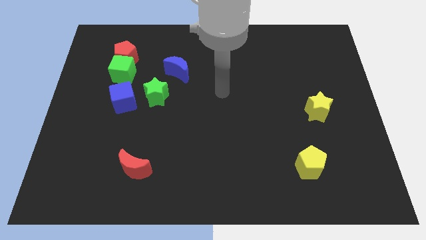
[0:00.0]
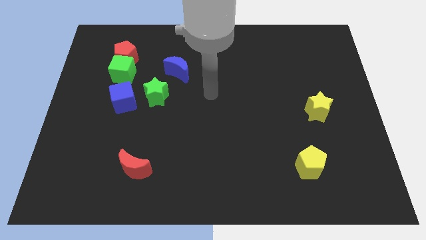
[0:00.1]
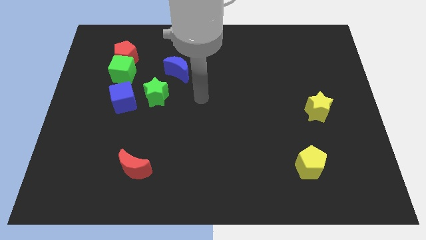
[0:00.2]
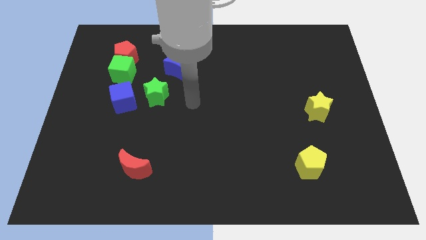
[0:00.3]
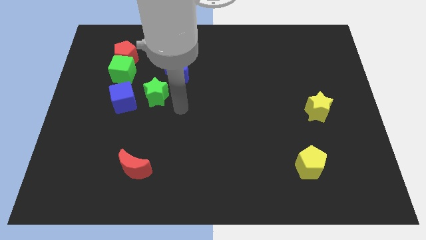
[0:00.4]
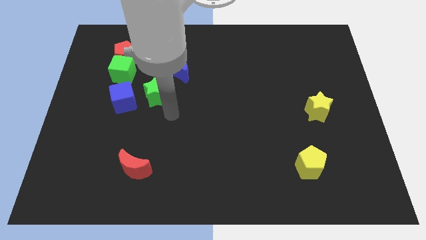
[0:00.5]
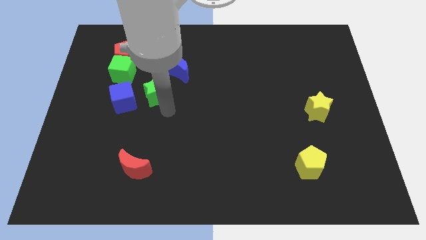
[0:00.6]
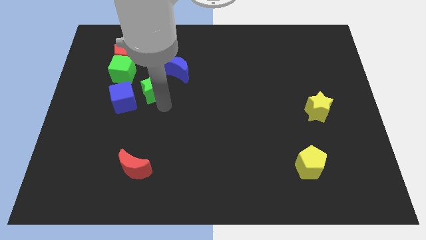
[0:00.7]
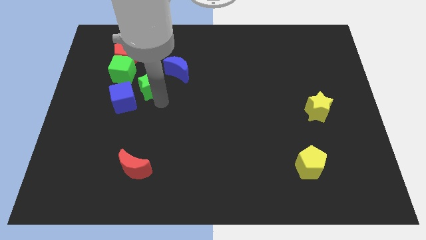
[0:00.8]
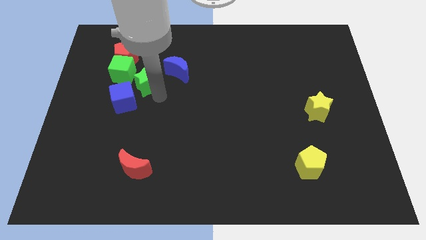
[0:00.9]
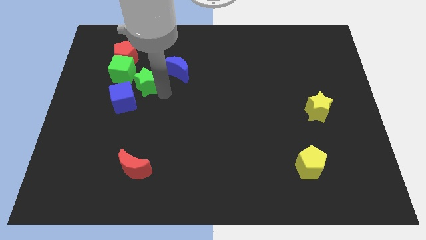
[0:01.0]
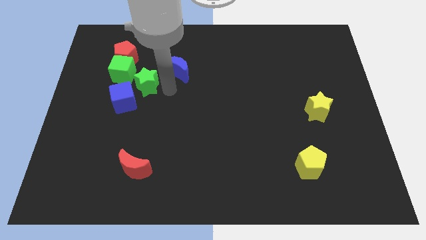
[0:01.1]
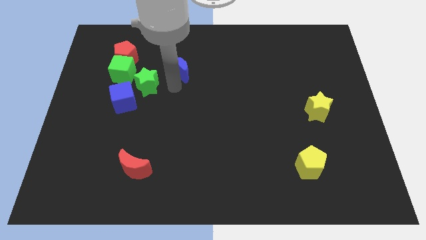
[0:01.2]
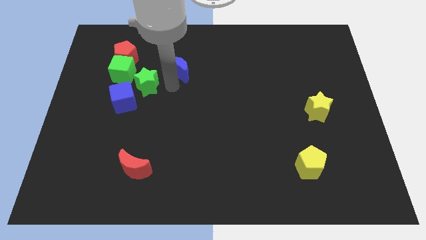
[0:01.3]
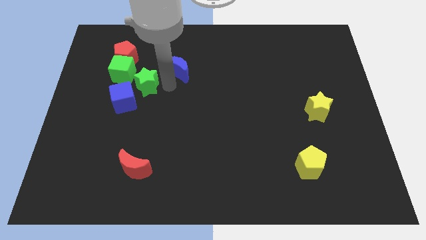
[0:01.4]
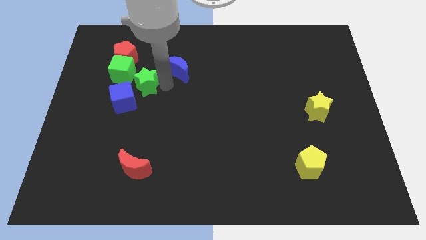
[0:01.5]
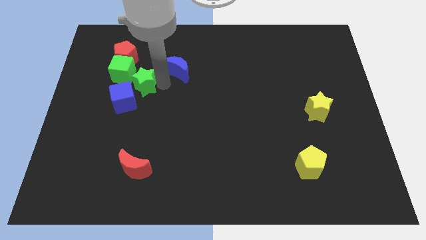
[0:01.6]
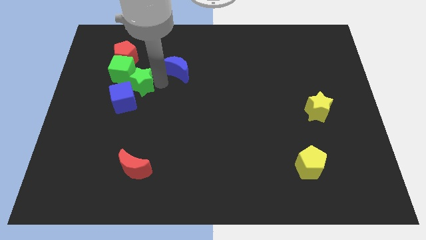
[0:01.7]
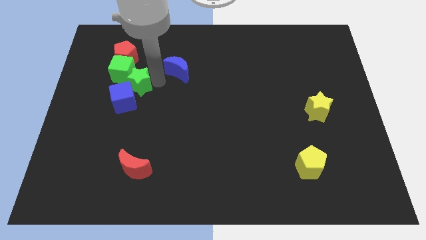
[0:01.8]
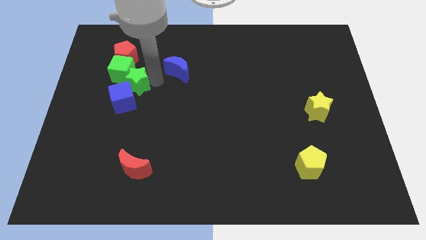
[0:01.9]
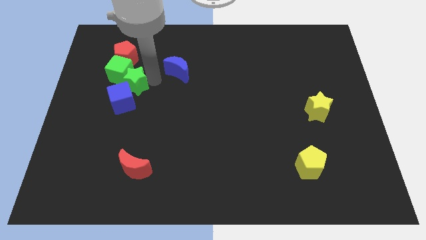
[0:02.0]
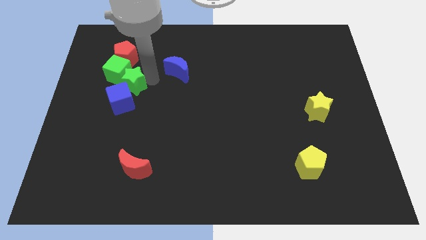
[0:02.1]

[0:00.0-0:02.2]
slightly move the green star up and then left

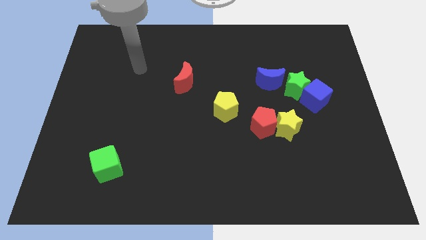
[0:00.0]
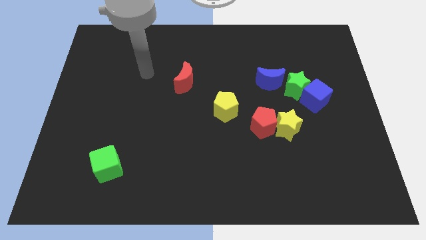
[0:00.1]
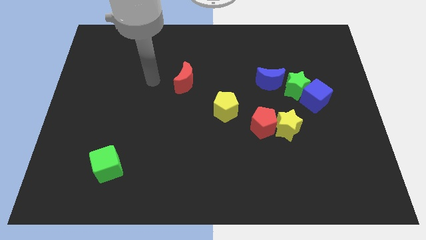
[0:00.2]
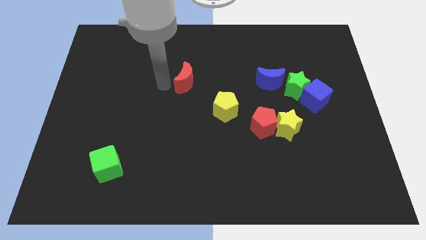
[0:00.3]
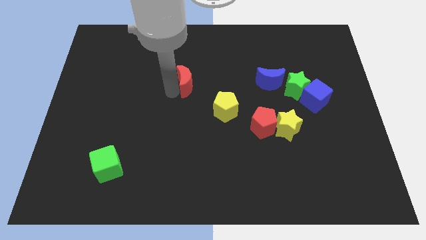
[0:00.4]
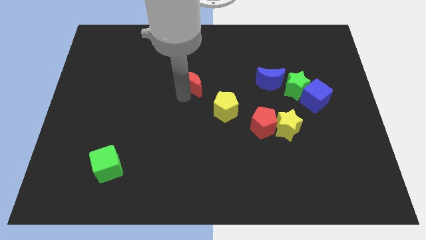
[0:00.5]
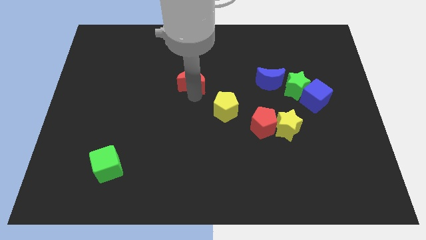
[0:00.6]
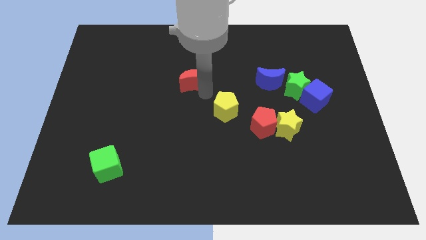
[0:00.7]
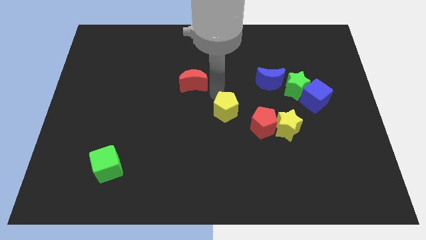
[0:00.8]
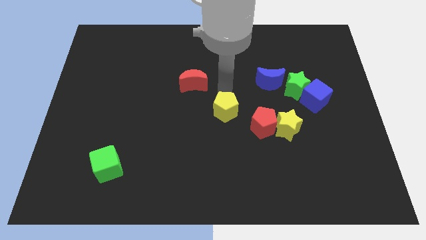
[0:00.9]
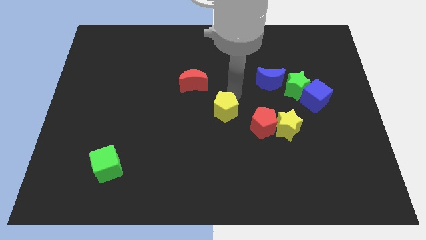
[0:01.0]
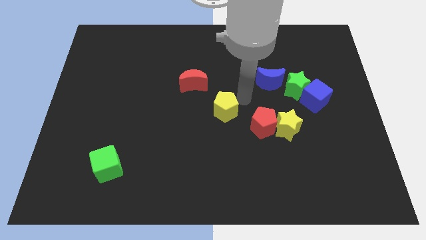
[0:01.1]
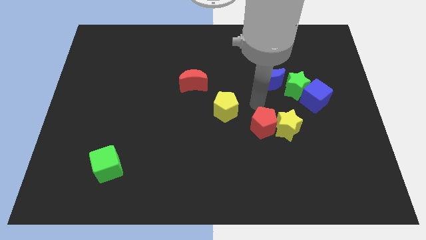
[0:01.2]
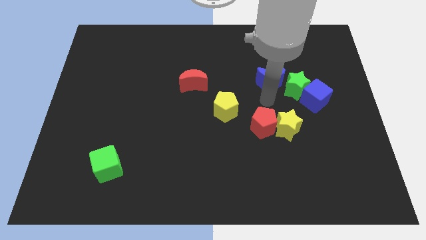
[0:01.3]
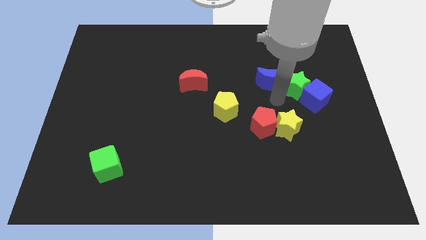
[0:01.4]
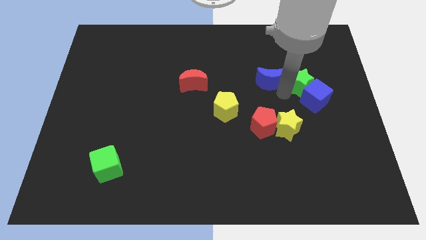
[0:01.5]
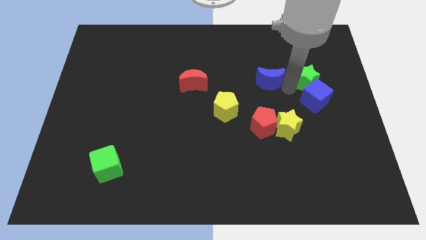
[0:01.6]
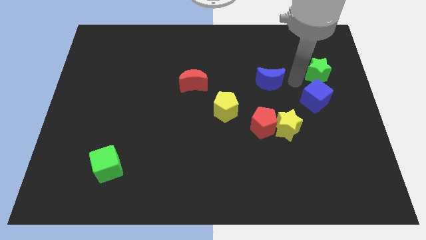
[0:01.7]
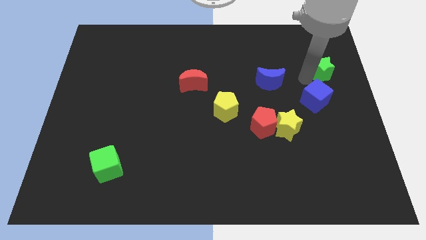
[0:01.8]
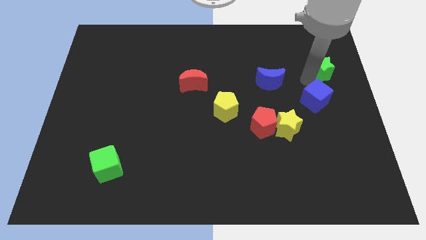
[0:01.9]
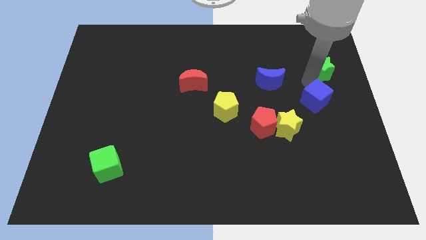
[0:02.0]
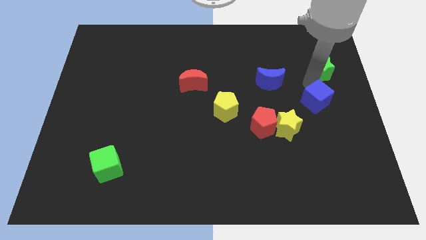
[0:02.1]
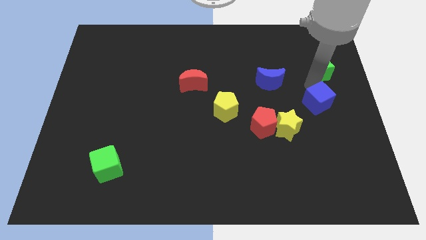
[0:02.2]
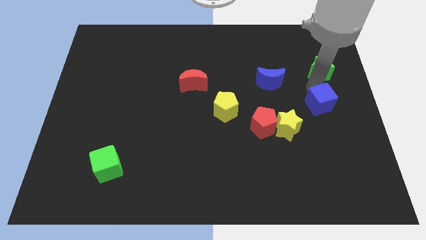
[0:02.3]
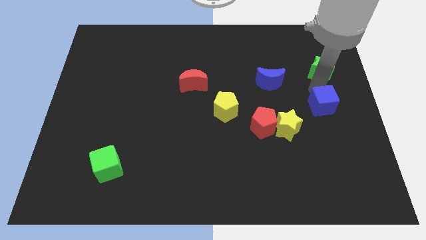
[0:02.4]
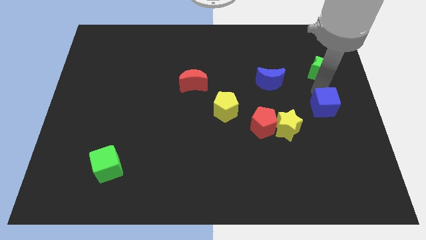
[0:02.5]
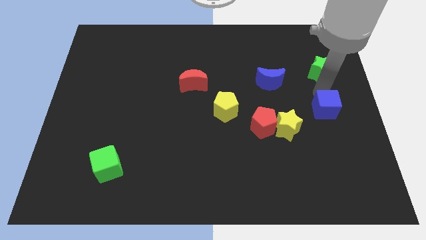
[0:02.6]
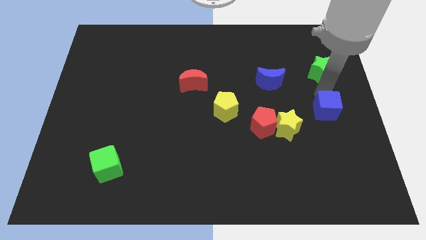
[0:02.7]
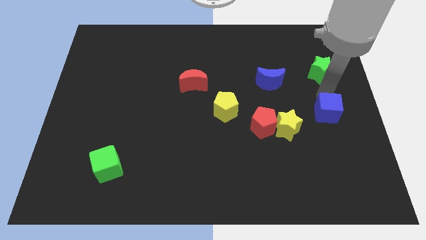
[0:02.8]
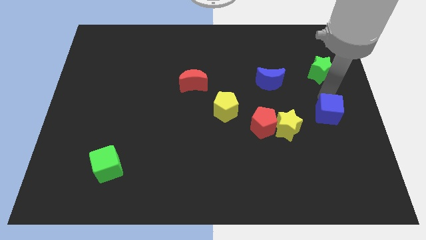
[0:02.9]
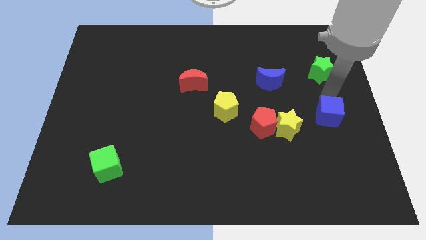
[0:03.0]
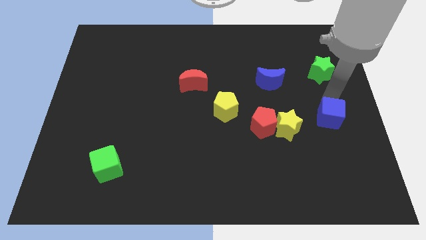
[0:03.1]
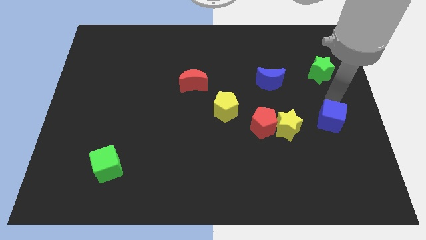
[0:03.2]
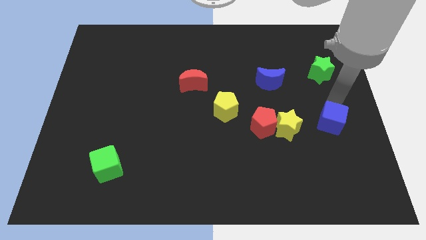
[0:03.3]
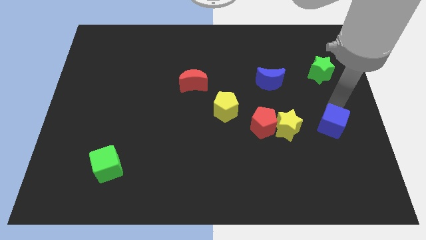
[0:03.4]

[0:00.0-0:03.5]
push the blue cube down a bit

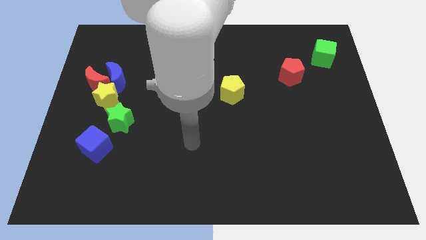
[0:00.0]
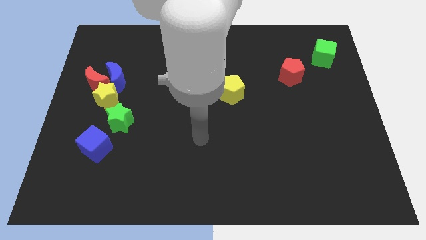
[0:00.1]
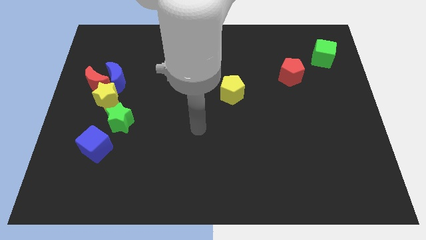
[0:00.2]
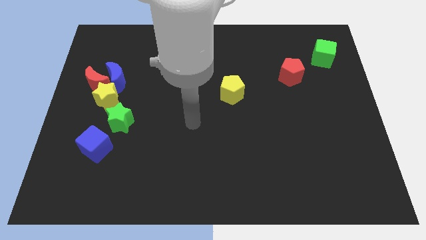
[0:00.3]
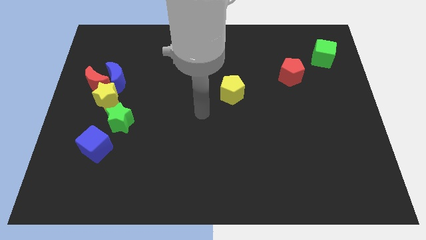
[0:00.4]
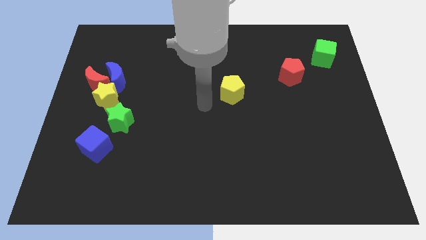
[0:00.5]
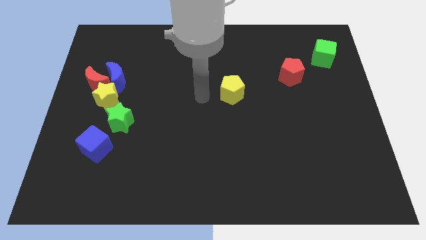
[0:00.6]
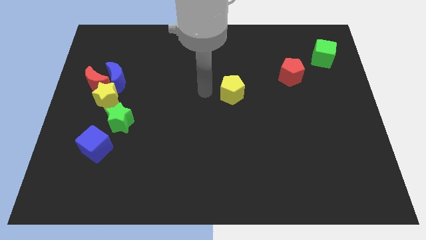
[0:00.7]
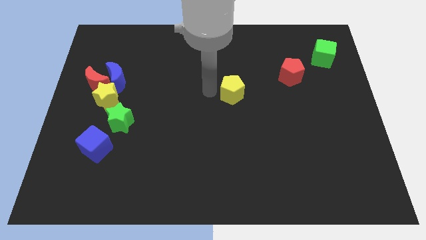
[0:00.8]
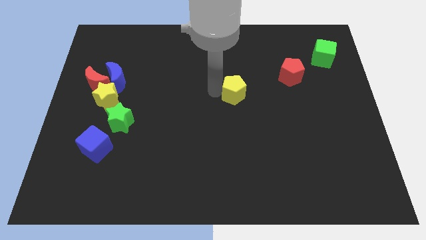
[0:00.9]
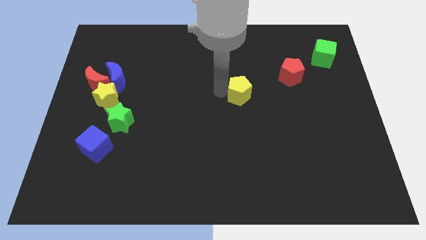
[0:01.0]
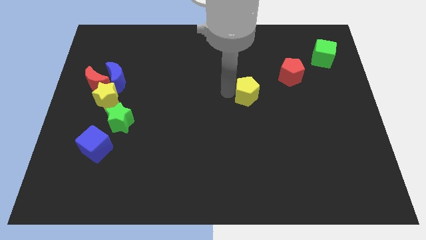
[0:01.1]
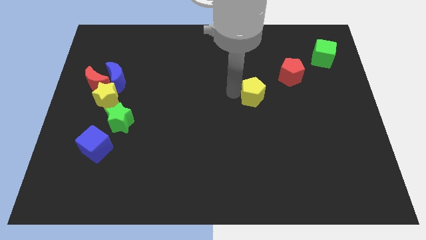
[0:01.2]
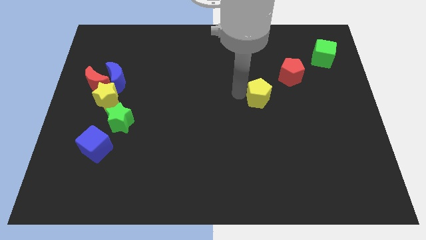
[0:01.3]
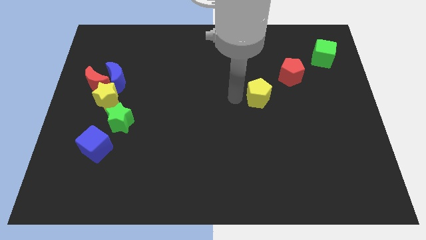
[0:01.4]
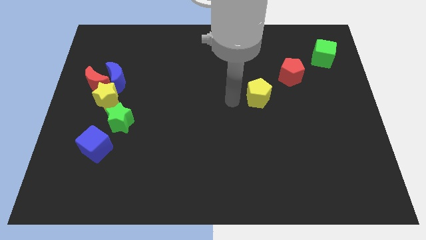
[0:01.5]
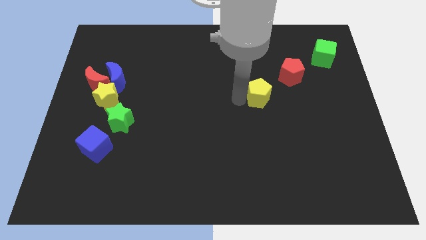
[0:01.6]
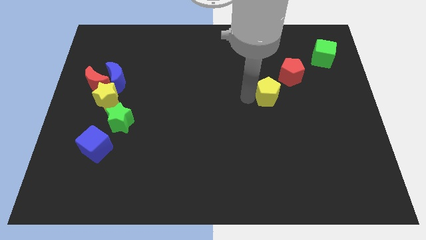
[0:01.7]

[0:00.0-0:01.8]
move the yellow pentagon right slightly

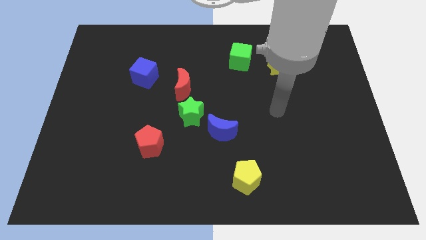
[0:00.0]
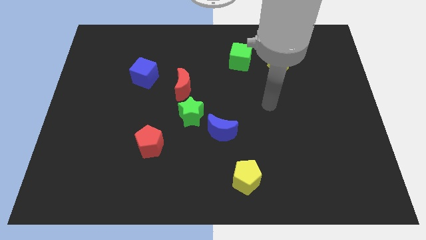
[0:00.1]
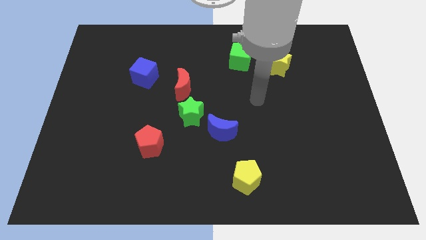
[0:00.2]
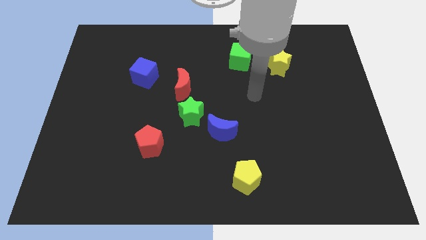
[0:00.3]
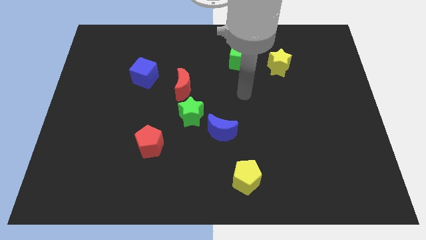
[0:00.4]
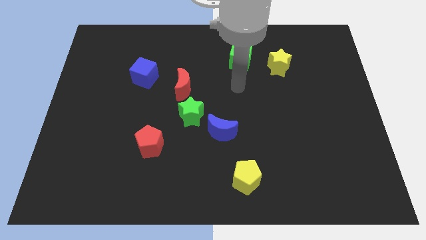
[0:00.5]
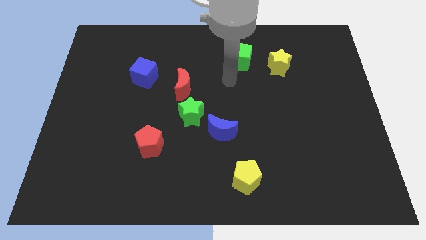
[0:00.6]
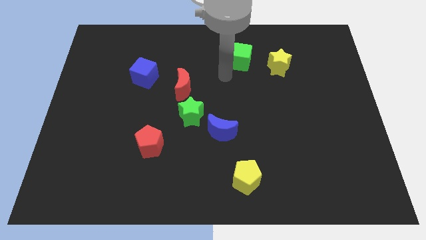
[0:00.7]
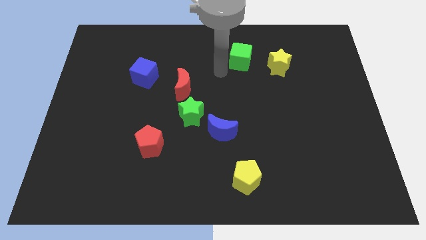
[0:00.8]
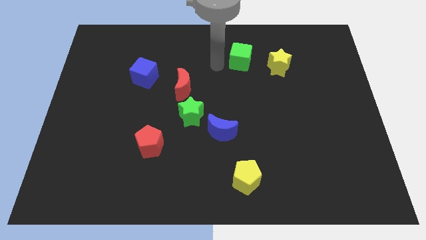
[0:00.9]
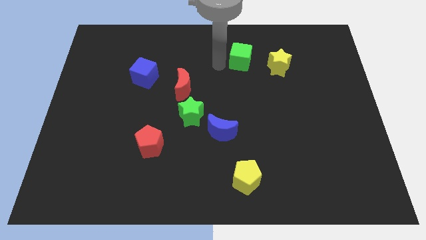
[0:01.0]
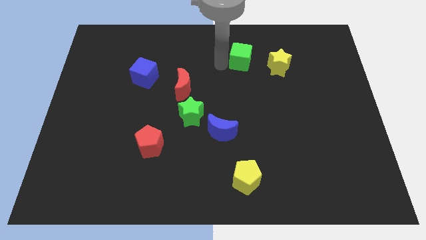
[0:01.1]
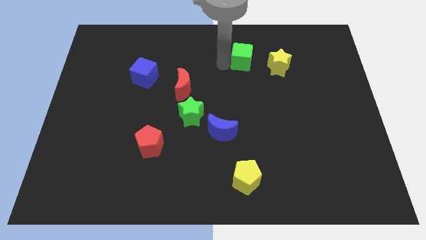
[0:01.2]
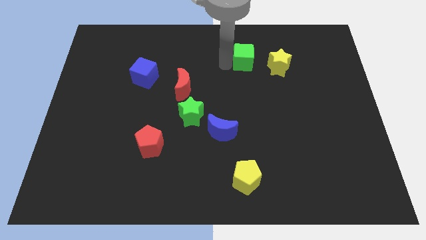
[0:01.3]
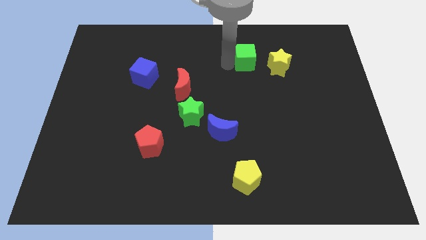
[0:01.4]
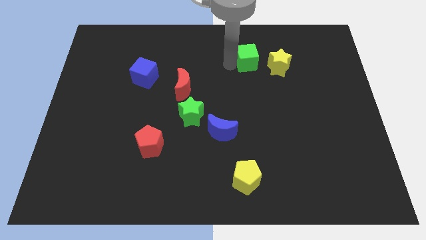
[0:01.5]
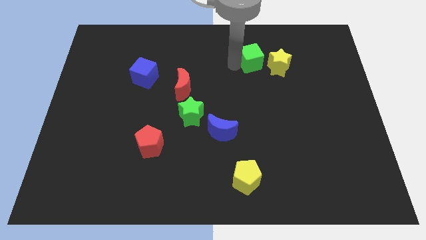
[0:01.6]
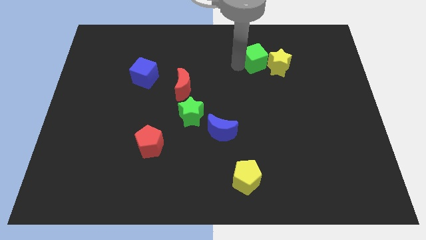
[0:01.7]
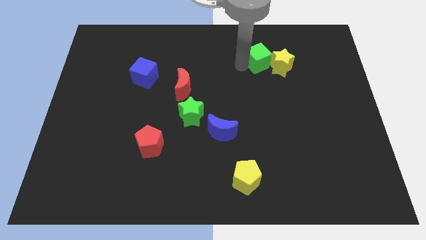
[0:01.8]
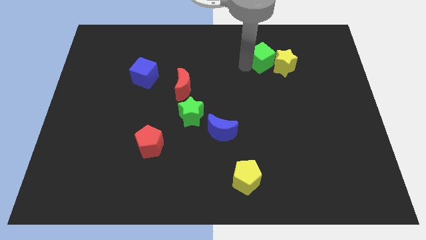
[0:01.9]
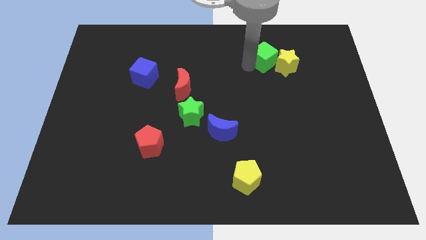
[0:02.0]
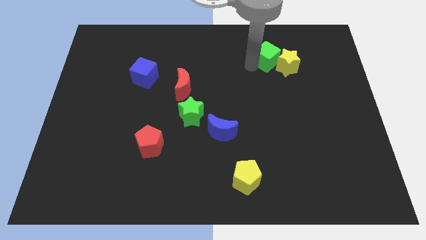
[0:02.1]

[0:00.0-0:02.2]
move the green cube a bit right
